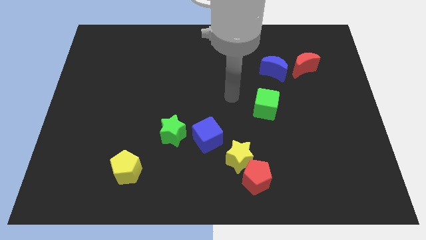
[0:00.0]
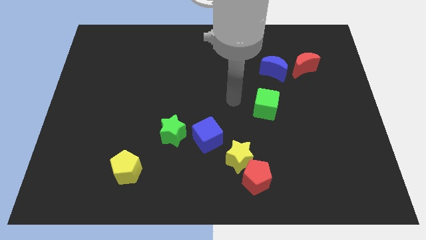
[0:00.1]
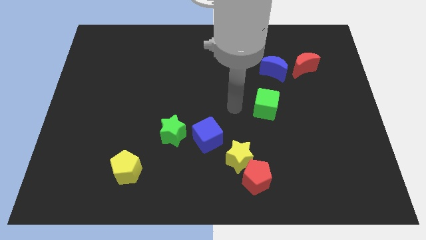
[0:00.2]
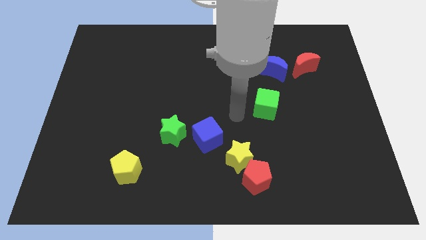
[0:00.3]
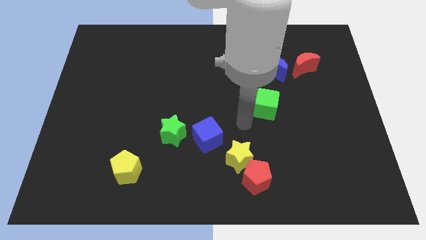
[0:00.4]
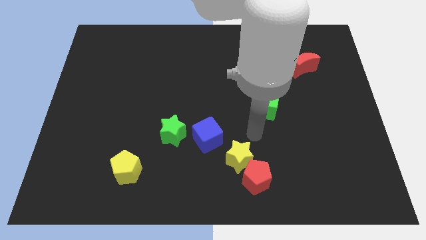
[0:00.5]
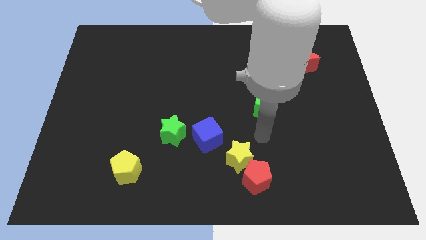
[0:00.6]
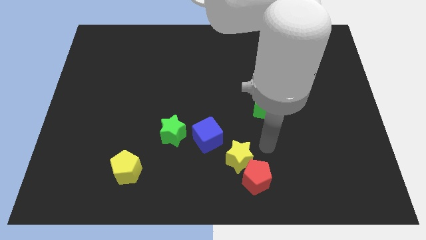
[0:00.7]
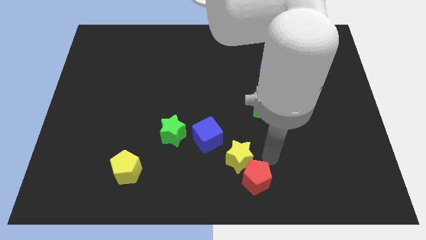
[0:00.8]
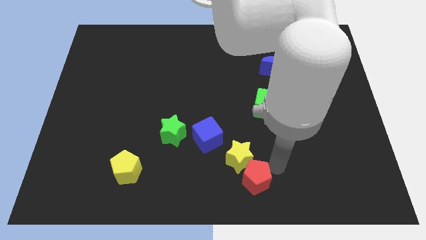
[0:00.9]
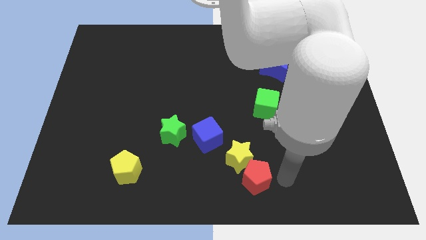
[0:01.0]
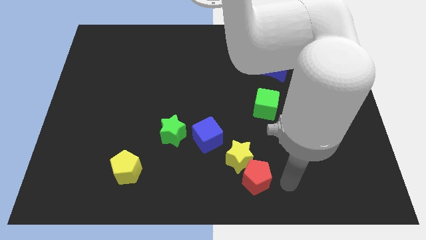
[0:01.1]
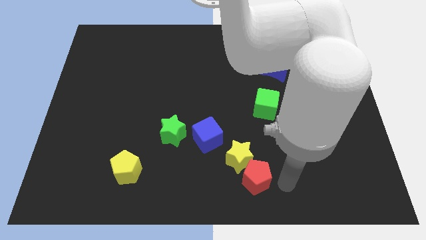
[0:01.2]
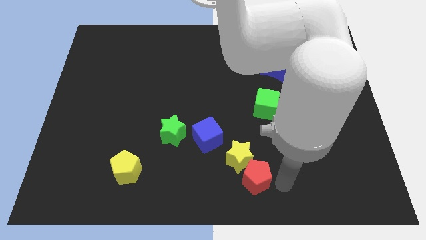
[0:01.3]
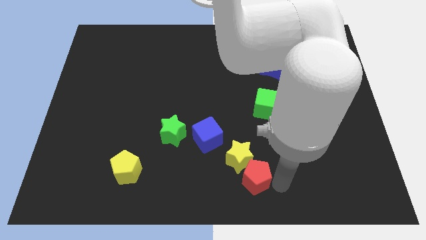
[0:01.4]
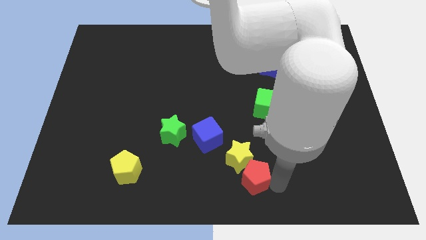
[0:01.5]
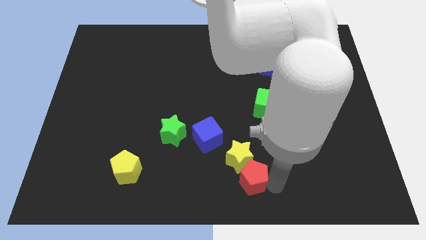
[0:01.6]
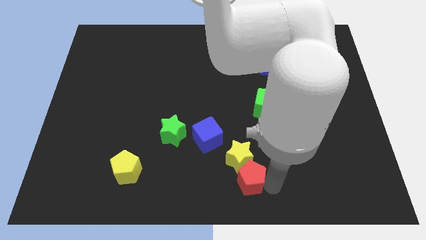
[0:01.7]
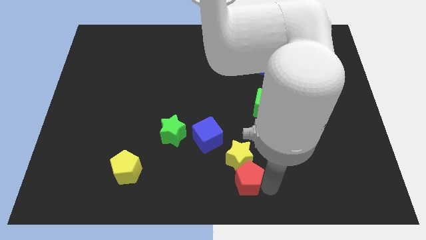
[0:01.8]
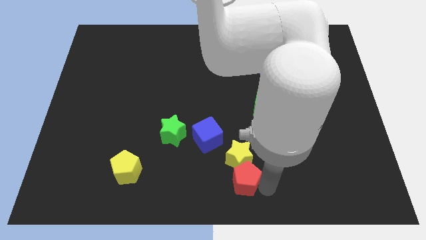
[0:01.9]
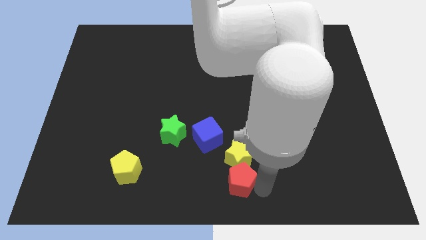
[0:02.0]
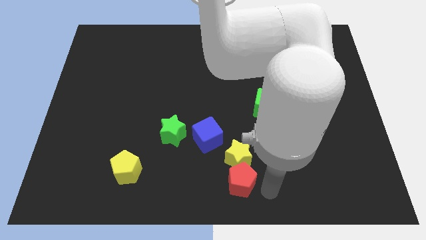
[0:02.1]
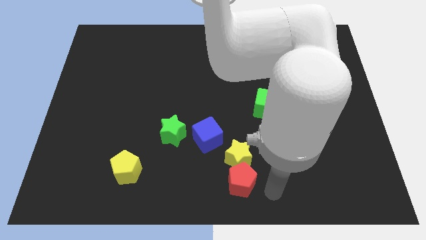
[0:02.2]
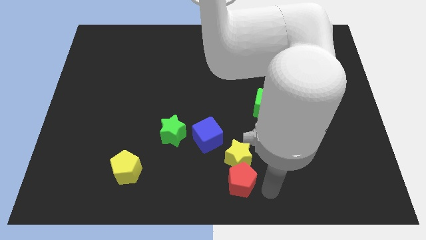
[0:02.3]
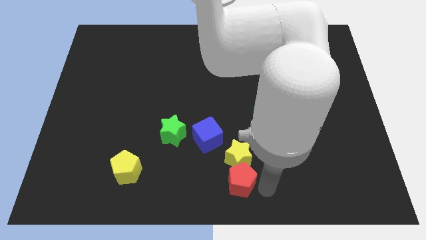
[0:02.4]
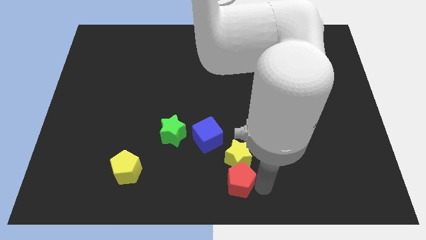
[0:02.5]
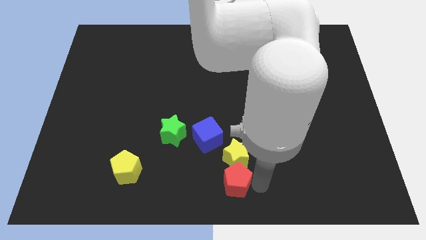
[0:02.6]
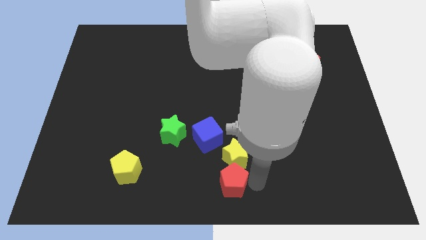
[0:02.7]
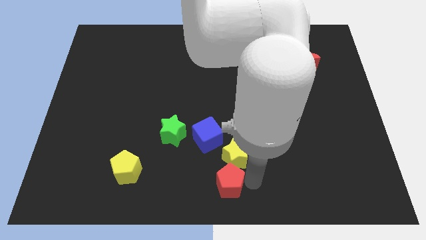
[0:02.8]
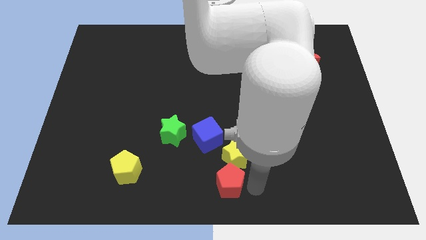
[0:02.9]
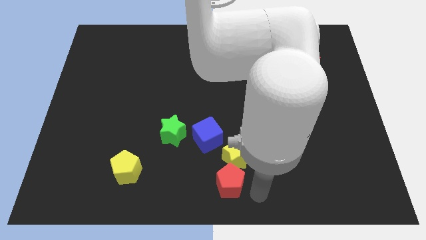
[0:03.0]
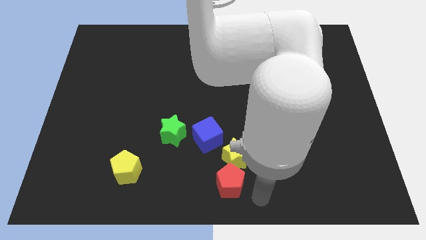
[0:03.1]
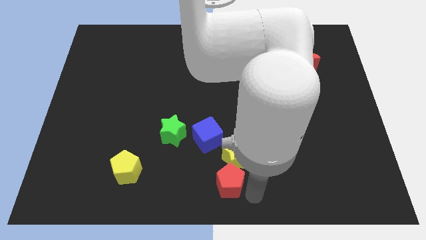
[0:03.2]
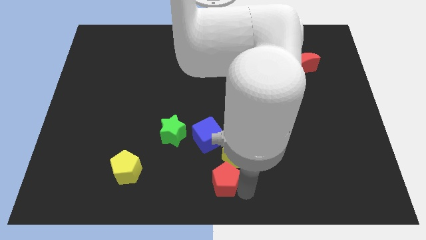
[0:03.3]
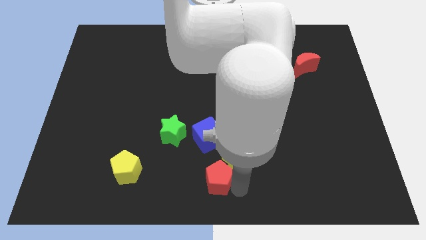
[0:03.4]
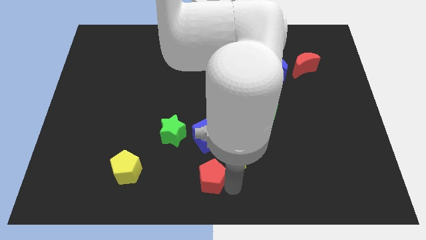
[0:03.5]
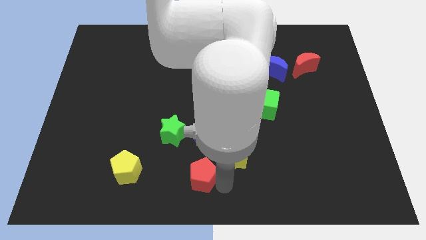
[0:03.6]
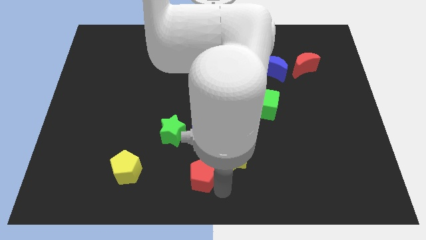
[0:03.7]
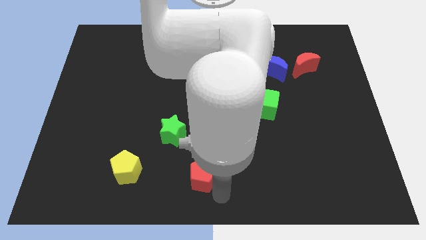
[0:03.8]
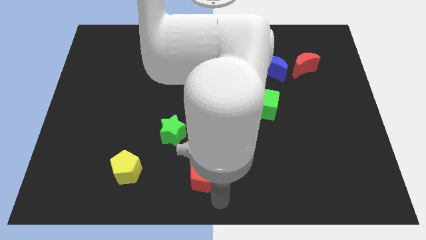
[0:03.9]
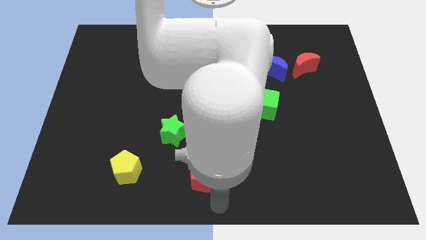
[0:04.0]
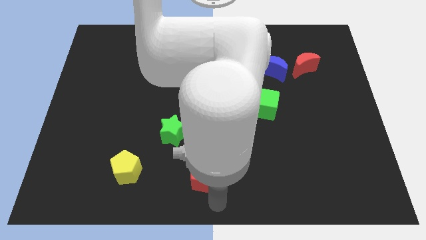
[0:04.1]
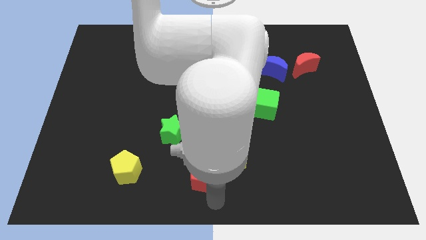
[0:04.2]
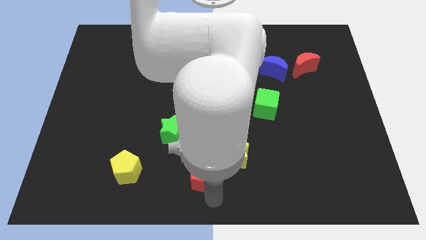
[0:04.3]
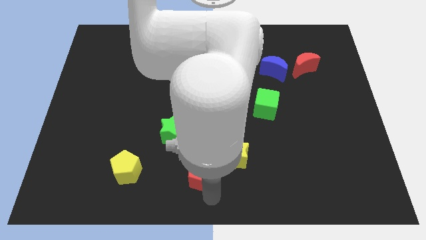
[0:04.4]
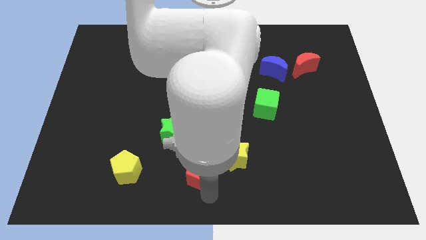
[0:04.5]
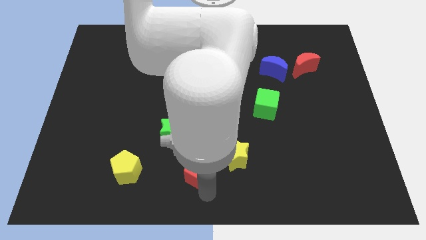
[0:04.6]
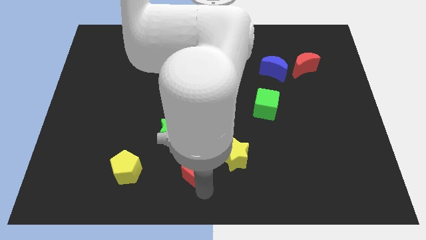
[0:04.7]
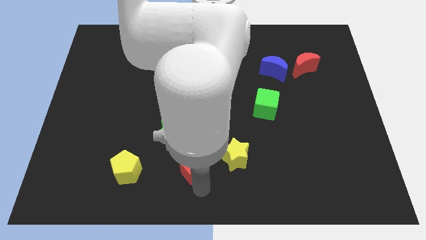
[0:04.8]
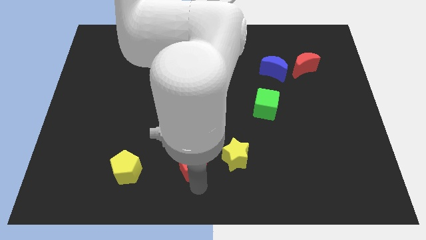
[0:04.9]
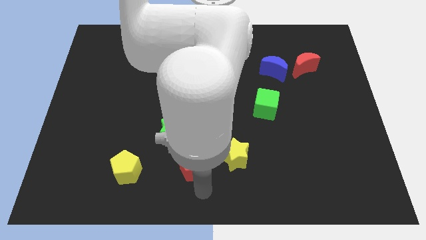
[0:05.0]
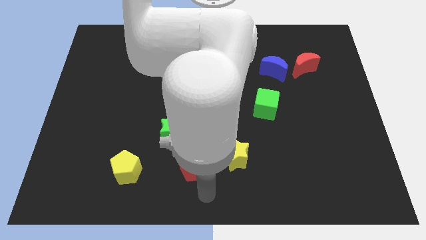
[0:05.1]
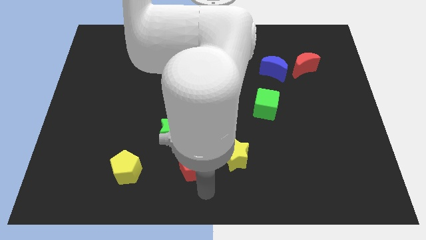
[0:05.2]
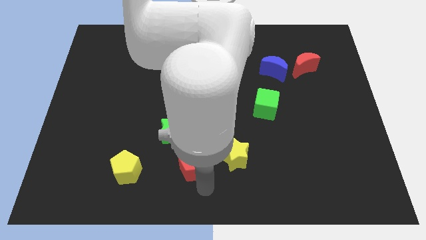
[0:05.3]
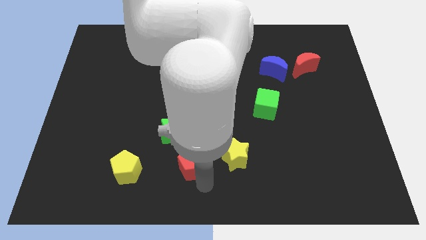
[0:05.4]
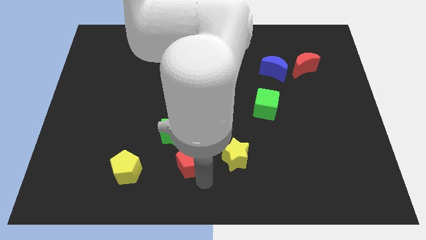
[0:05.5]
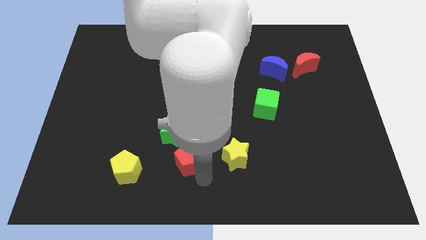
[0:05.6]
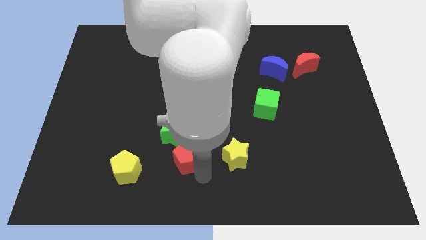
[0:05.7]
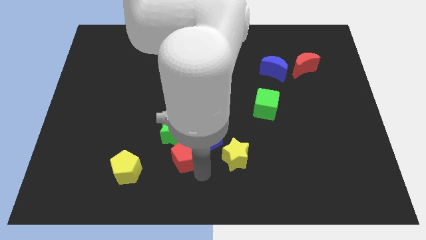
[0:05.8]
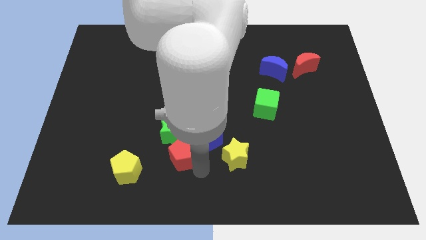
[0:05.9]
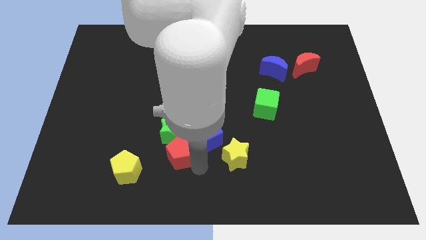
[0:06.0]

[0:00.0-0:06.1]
put the red pentagon close to the green star

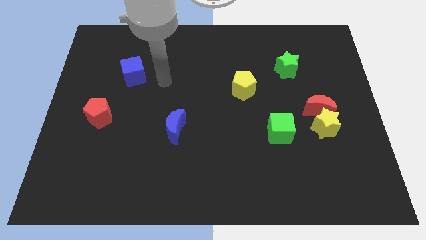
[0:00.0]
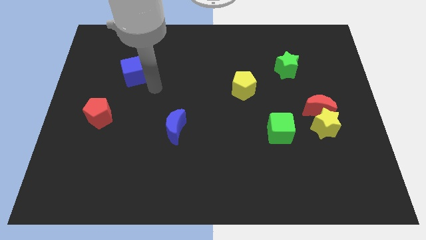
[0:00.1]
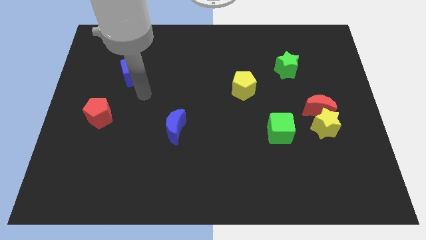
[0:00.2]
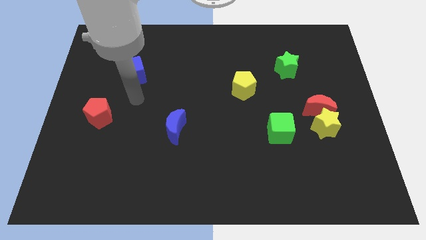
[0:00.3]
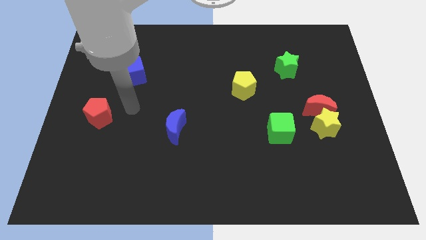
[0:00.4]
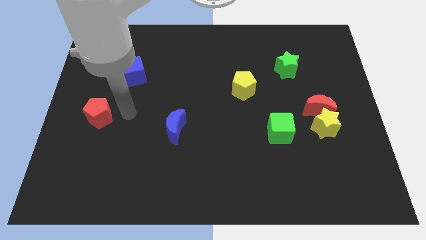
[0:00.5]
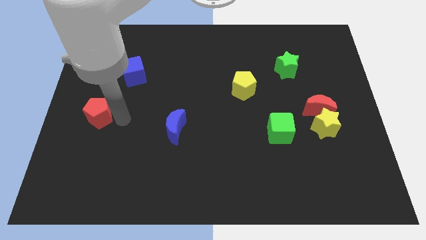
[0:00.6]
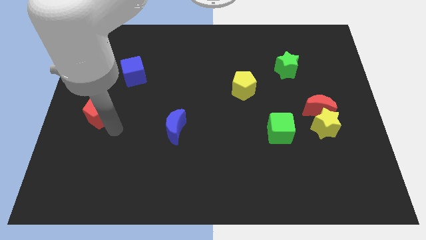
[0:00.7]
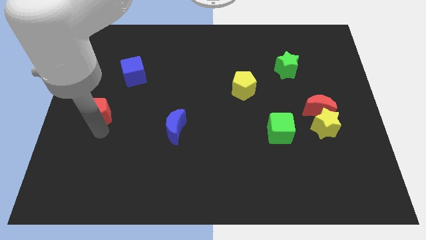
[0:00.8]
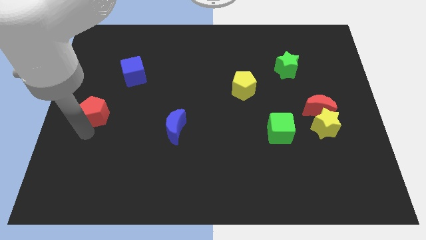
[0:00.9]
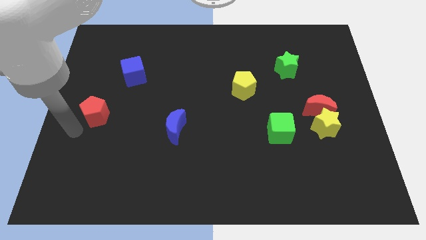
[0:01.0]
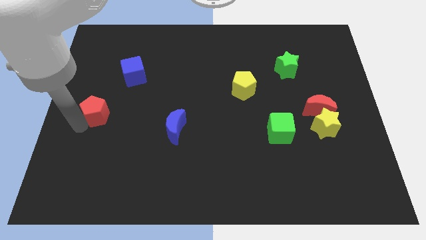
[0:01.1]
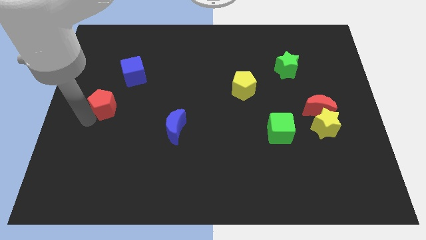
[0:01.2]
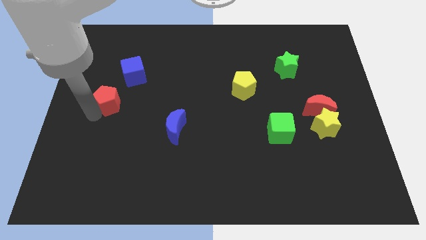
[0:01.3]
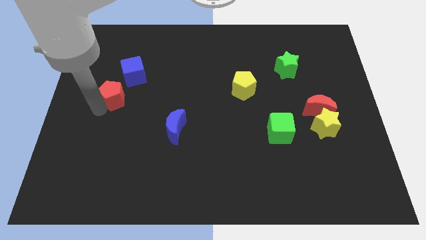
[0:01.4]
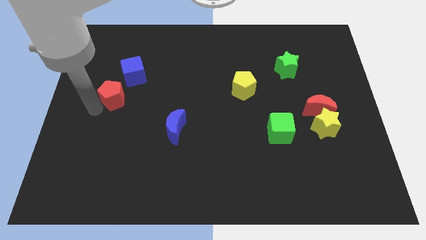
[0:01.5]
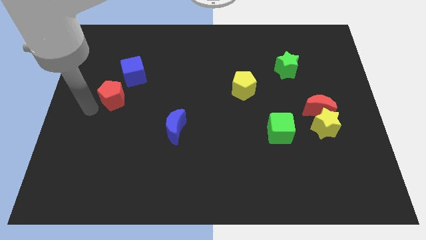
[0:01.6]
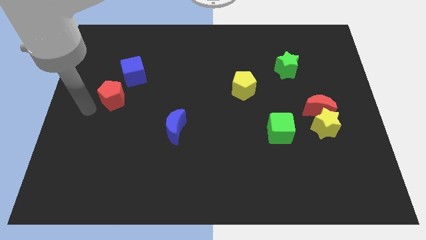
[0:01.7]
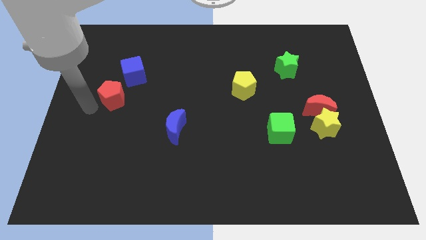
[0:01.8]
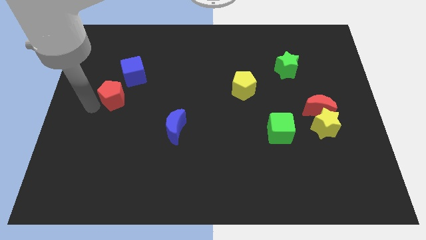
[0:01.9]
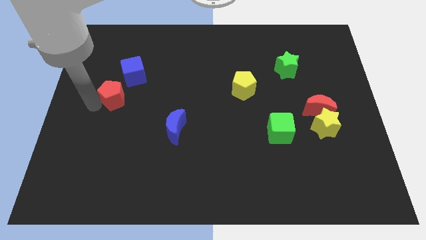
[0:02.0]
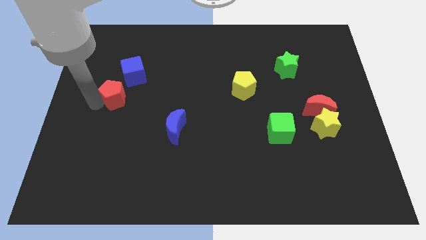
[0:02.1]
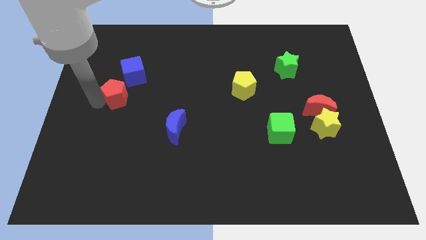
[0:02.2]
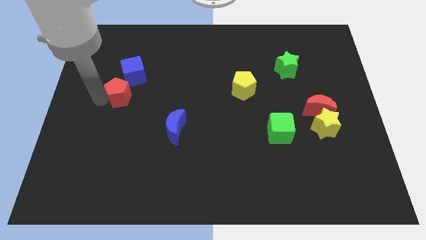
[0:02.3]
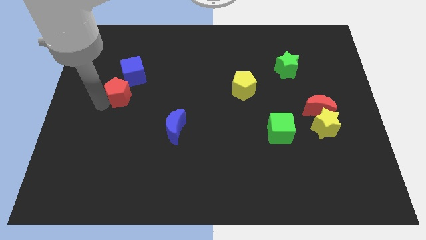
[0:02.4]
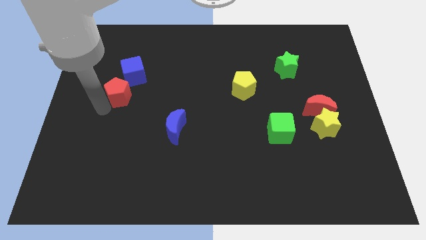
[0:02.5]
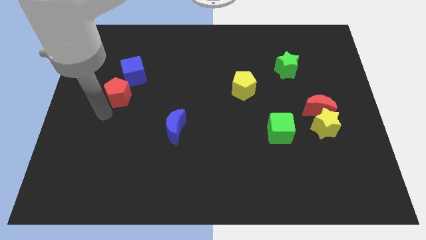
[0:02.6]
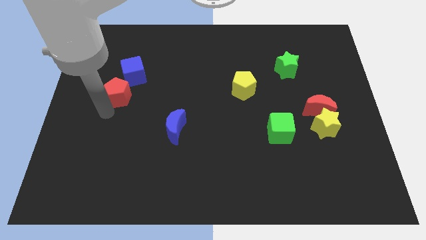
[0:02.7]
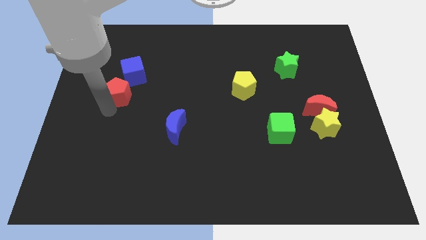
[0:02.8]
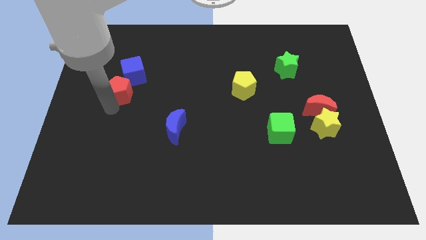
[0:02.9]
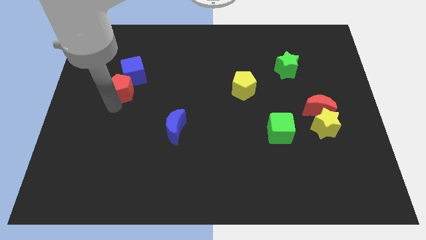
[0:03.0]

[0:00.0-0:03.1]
slide the red pentagon to the blue cube
